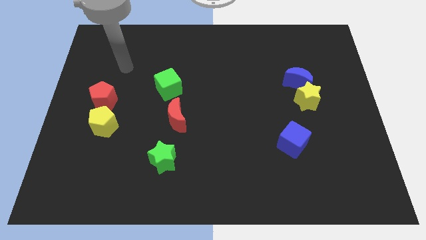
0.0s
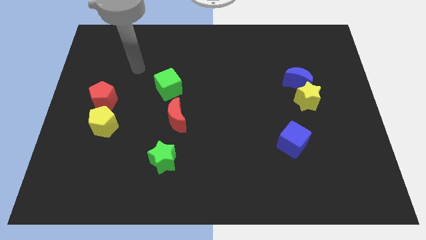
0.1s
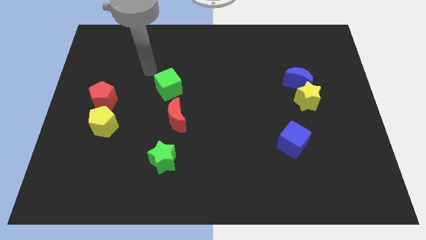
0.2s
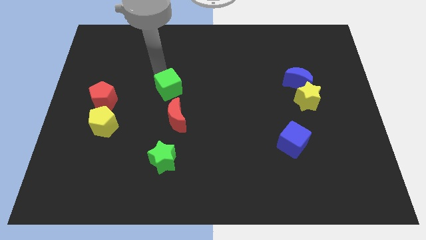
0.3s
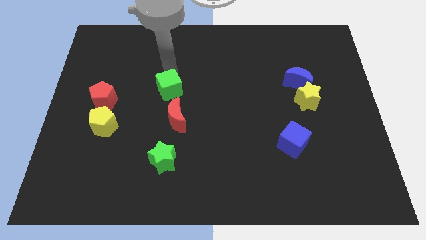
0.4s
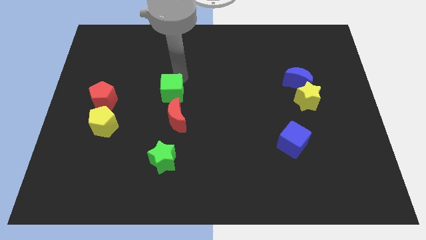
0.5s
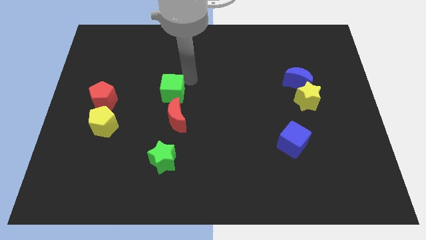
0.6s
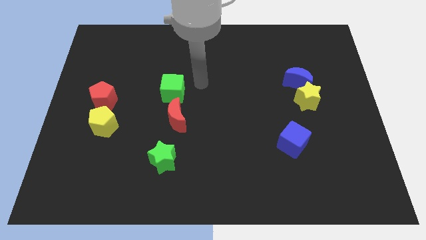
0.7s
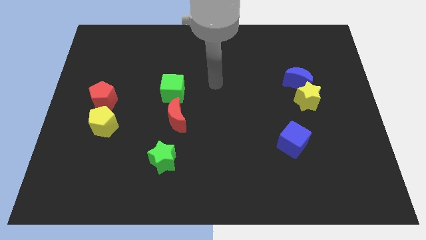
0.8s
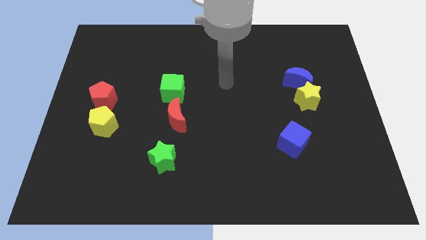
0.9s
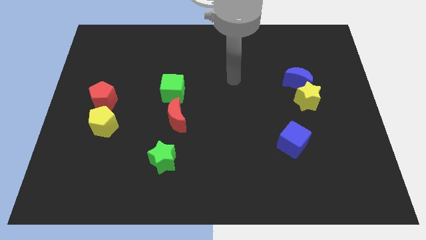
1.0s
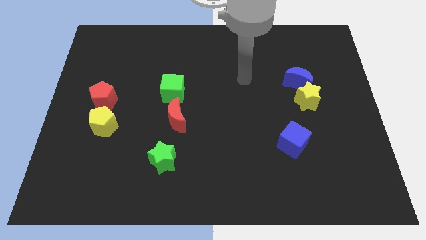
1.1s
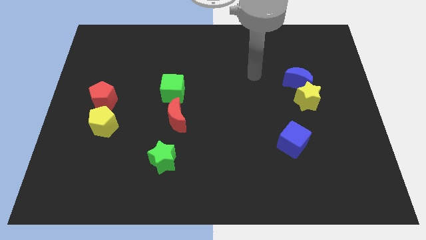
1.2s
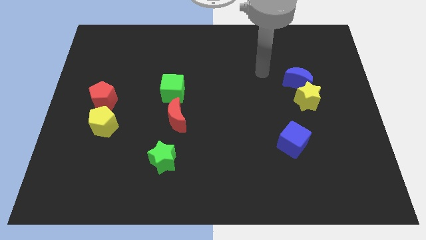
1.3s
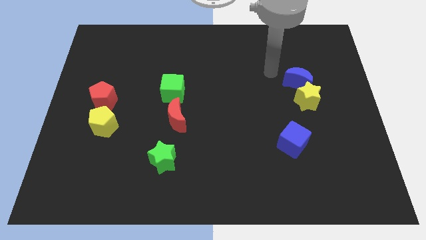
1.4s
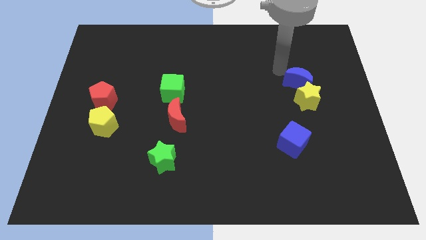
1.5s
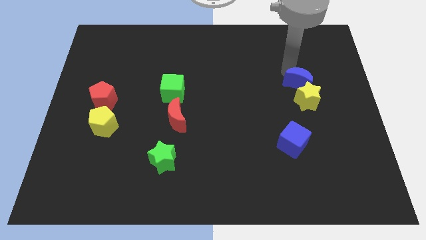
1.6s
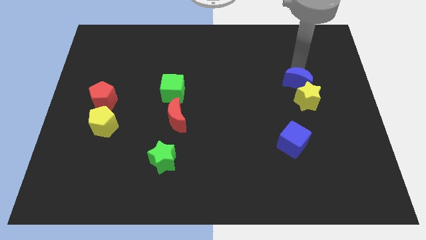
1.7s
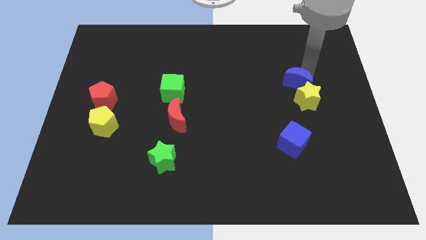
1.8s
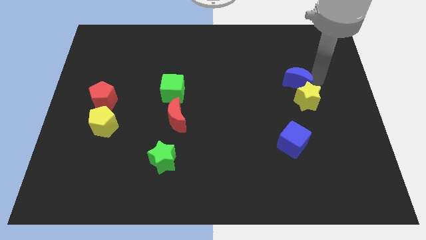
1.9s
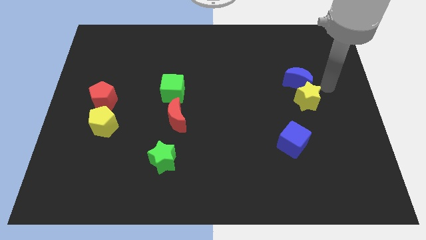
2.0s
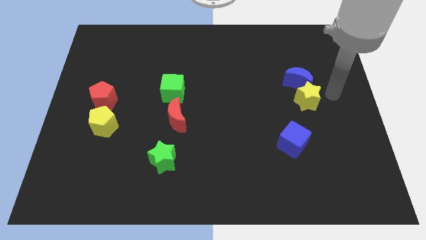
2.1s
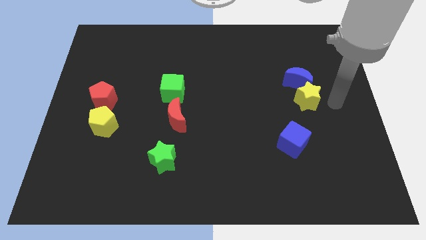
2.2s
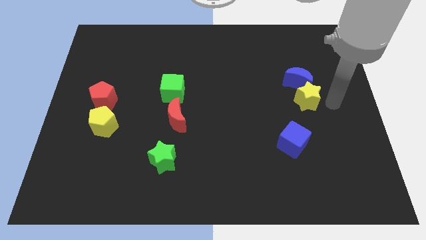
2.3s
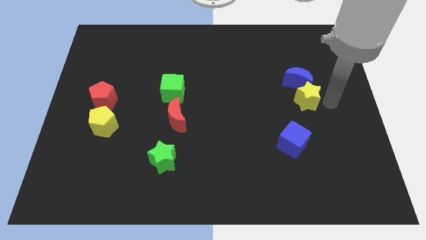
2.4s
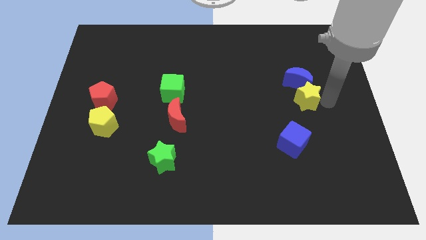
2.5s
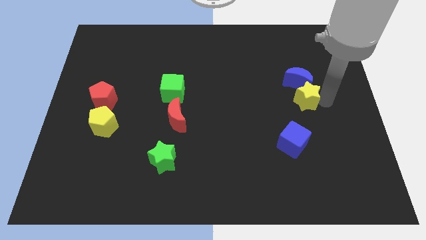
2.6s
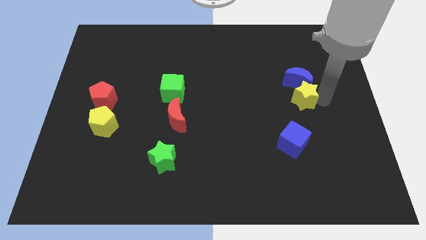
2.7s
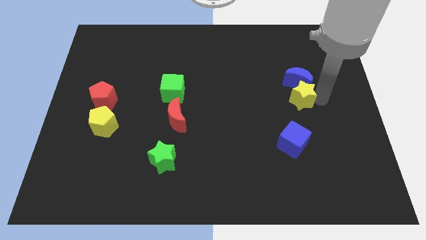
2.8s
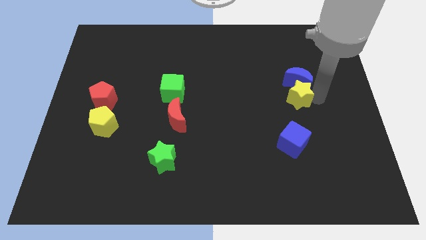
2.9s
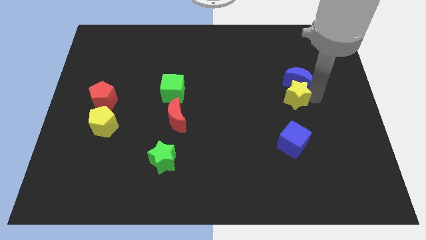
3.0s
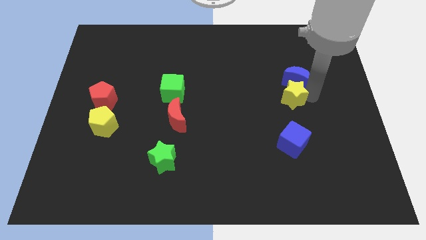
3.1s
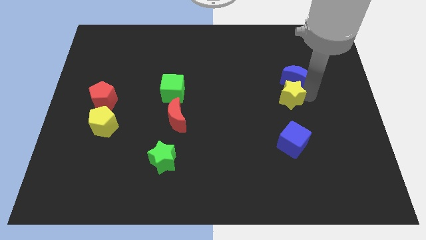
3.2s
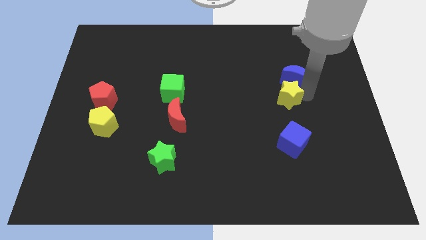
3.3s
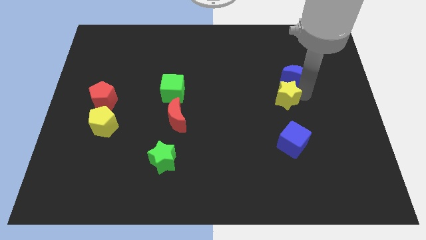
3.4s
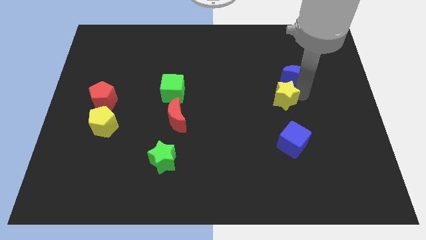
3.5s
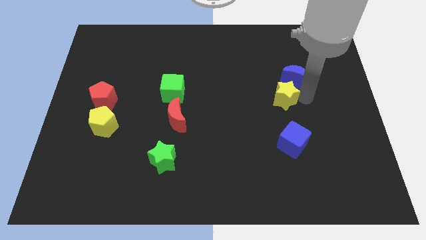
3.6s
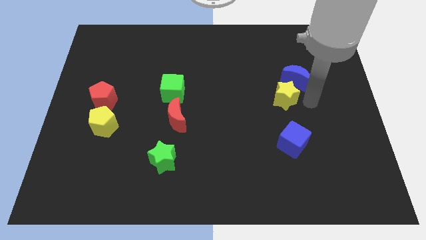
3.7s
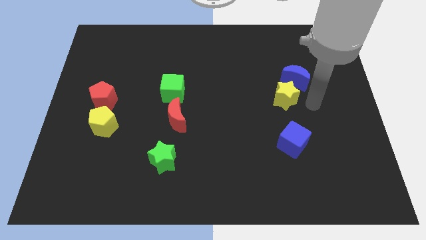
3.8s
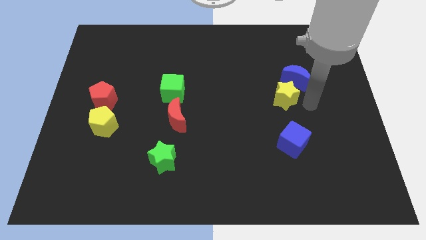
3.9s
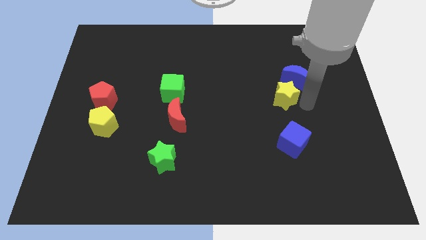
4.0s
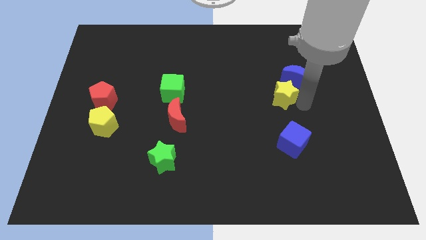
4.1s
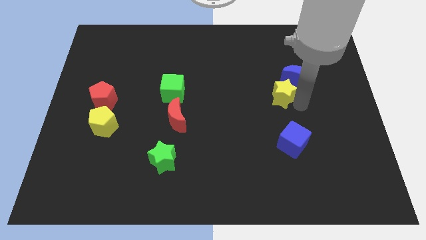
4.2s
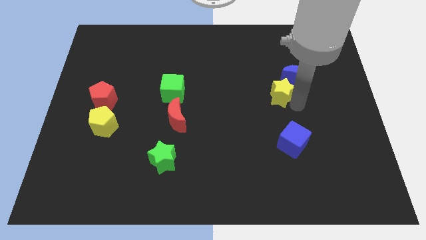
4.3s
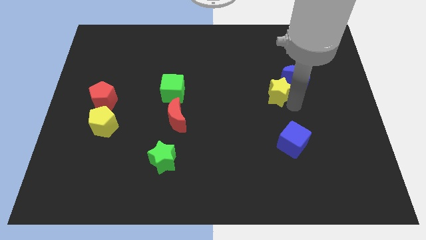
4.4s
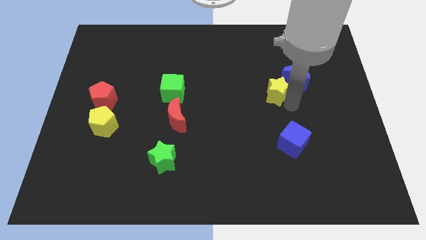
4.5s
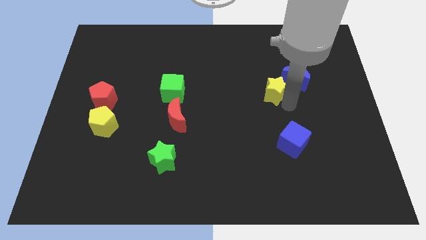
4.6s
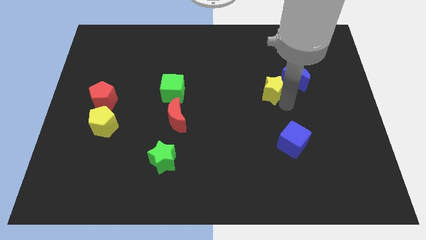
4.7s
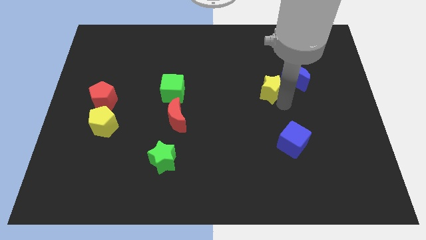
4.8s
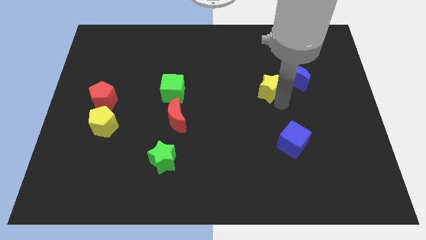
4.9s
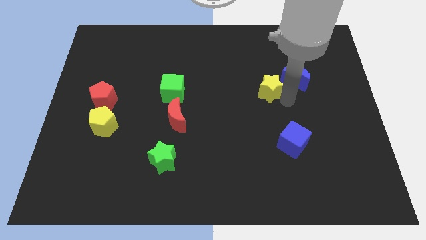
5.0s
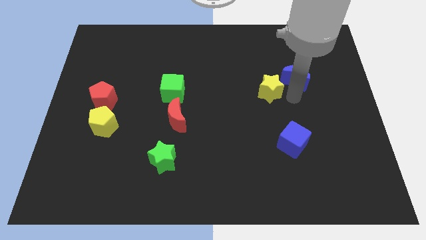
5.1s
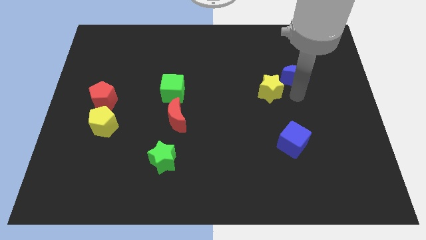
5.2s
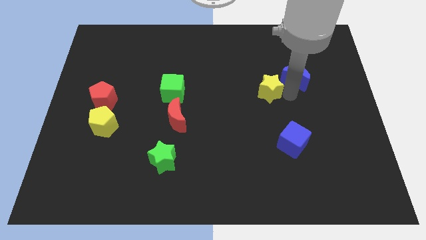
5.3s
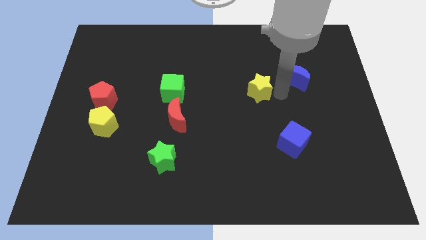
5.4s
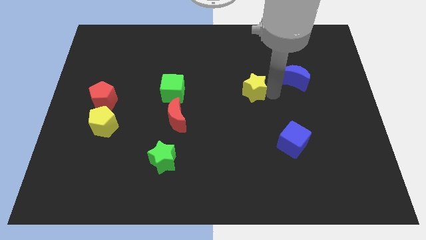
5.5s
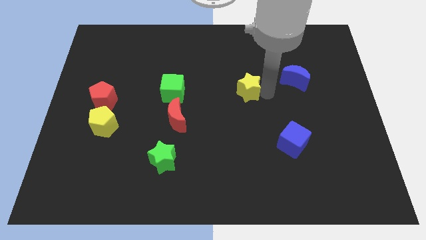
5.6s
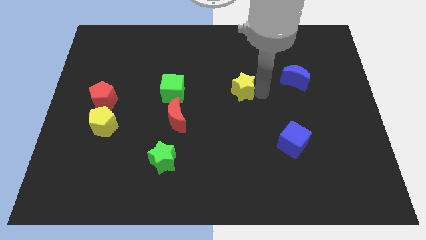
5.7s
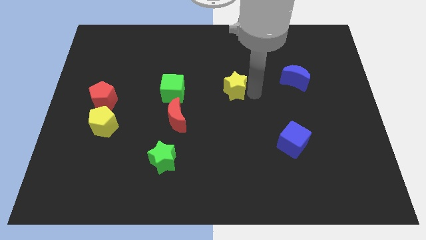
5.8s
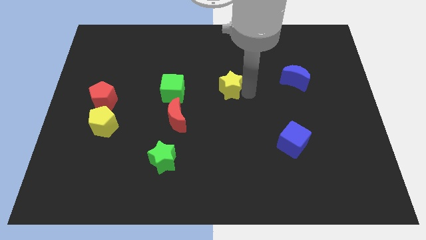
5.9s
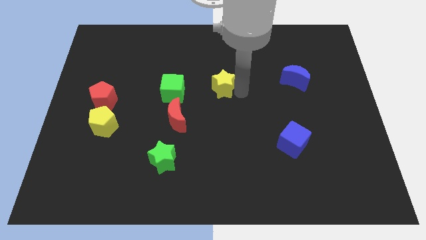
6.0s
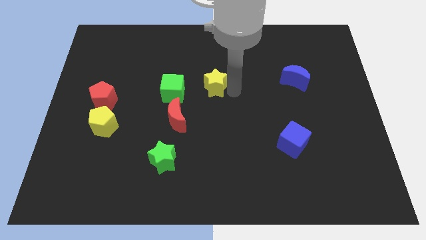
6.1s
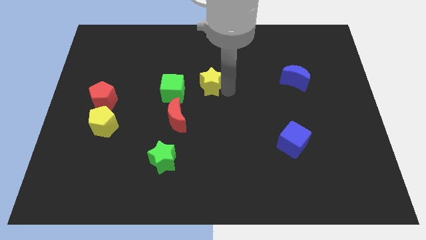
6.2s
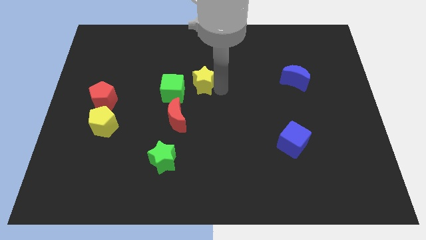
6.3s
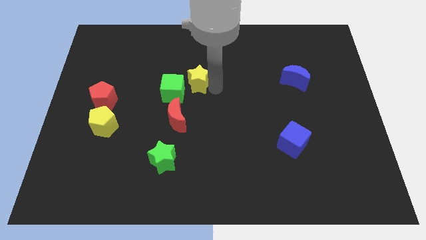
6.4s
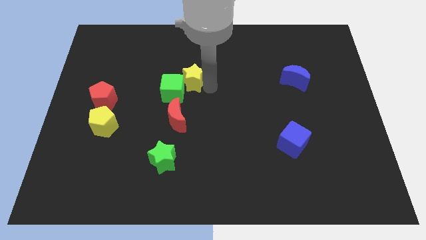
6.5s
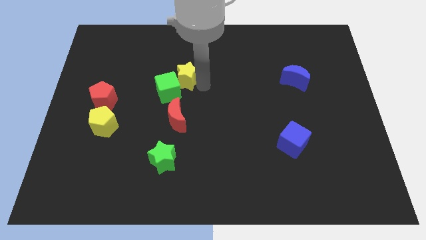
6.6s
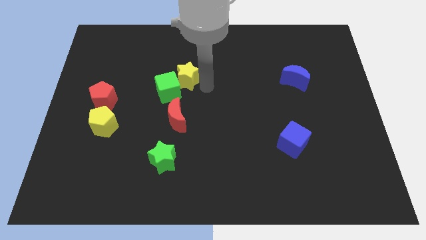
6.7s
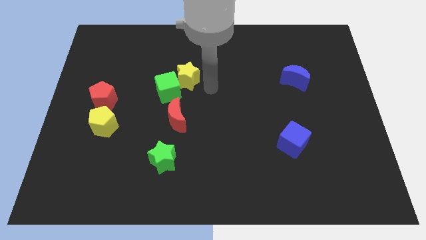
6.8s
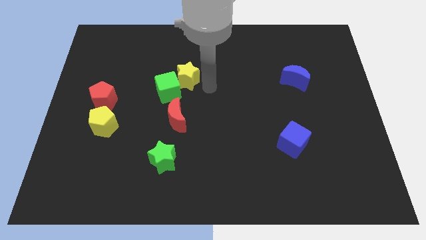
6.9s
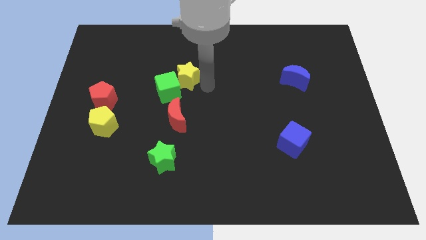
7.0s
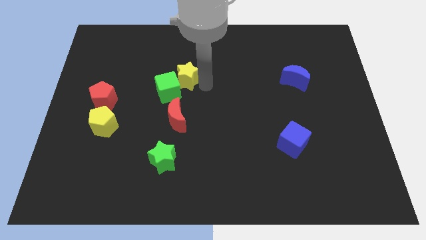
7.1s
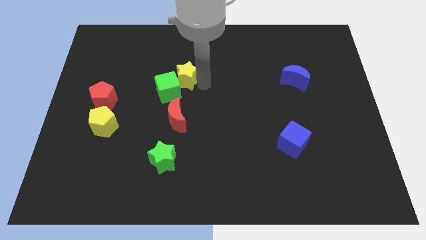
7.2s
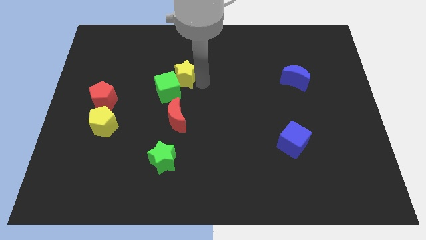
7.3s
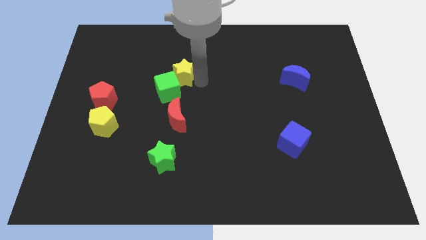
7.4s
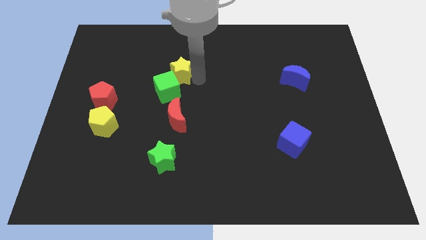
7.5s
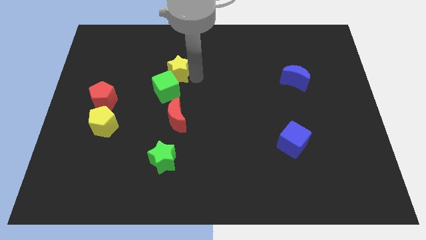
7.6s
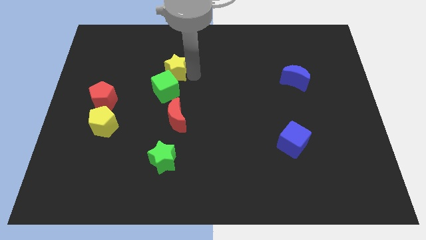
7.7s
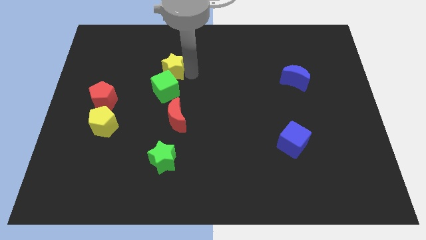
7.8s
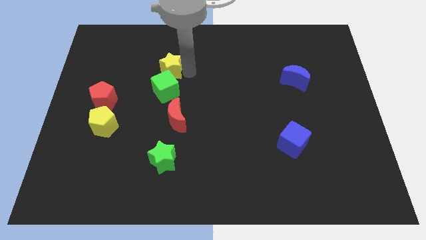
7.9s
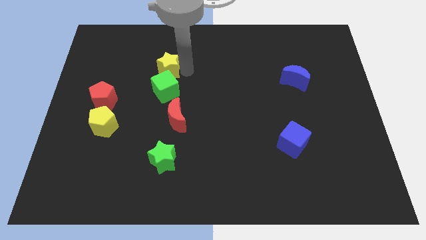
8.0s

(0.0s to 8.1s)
move the yellow star to the top left of the green cube
